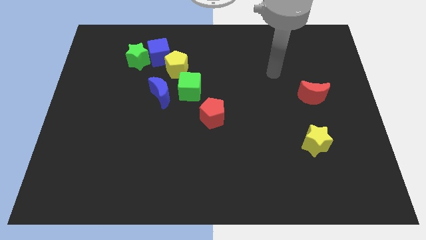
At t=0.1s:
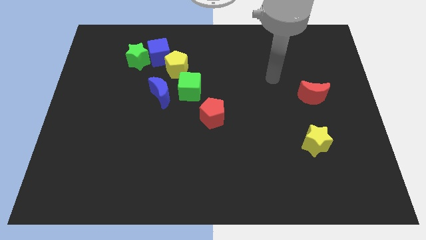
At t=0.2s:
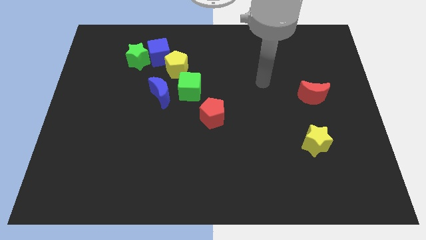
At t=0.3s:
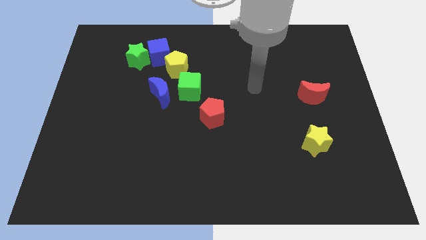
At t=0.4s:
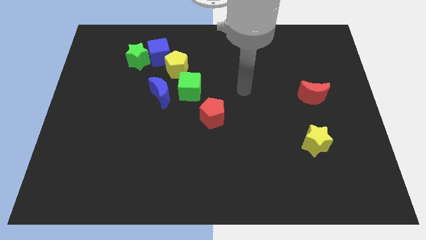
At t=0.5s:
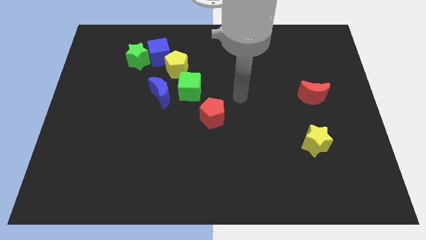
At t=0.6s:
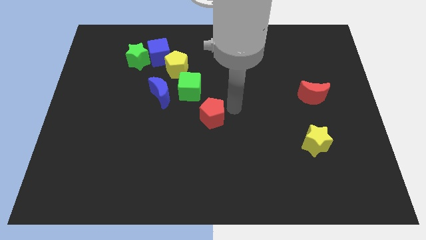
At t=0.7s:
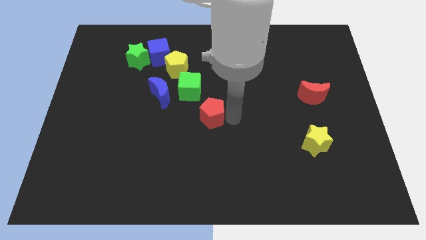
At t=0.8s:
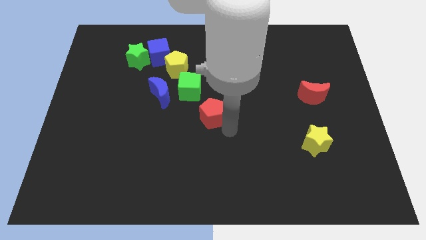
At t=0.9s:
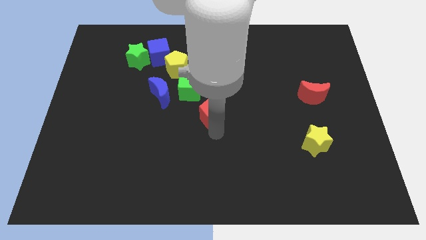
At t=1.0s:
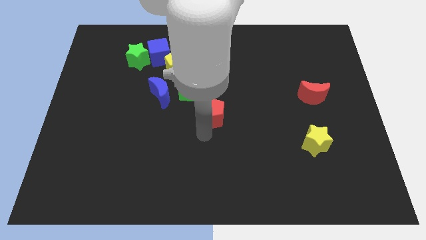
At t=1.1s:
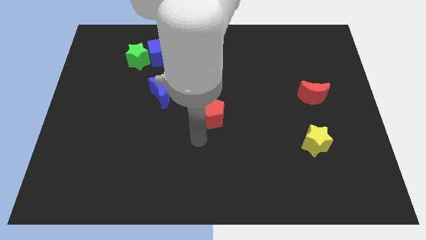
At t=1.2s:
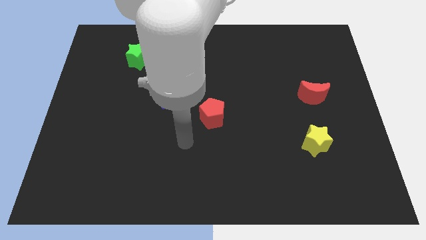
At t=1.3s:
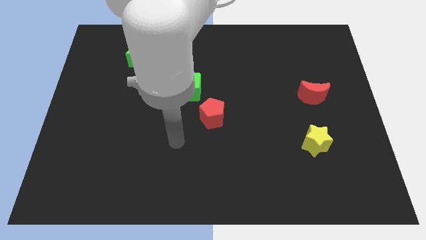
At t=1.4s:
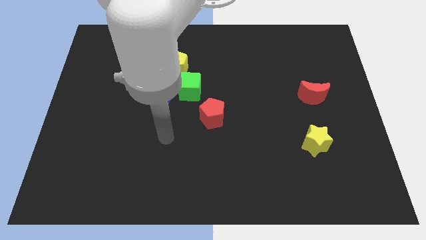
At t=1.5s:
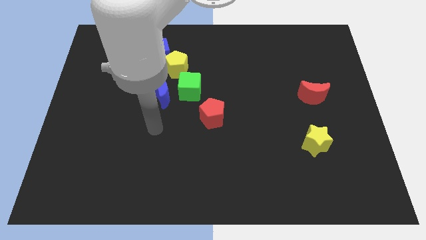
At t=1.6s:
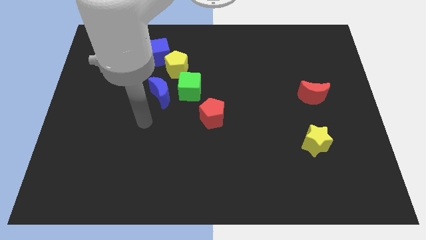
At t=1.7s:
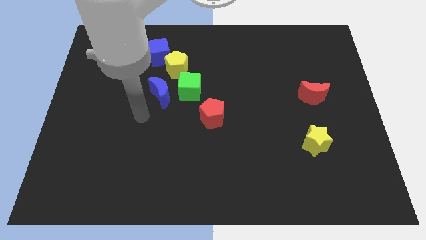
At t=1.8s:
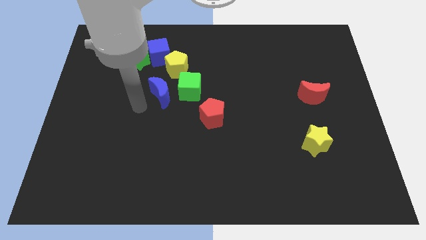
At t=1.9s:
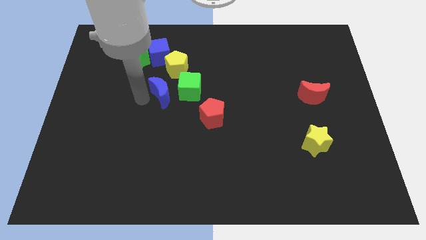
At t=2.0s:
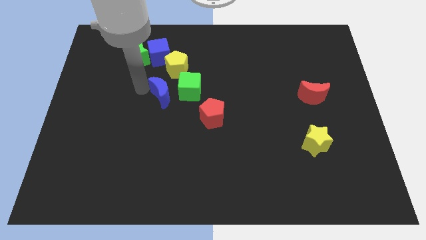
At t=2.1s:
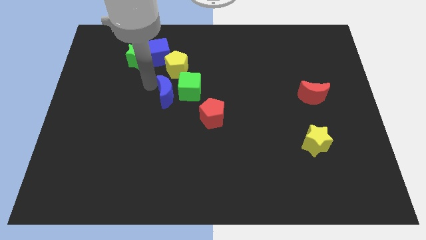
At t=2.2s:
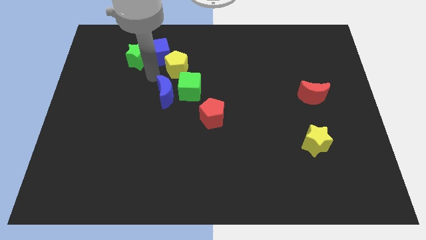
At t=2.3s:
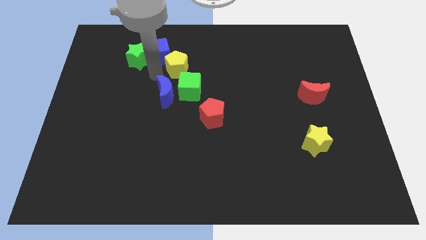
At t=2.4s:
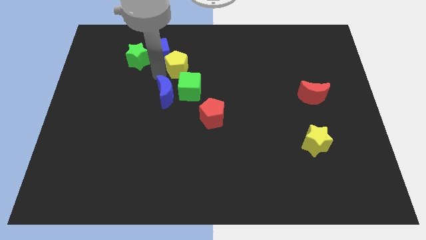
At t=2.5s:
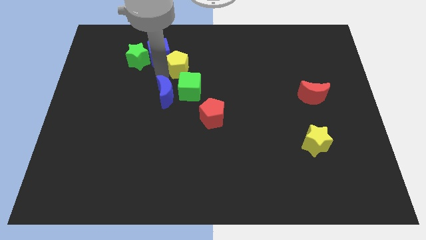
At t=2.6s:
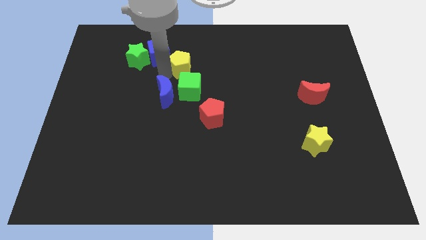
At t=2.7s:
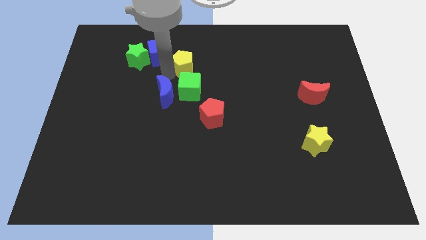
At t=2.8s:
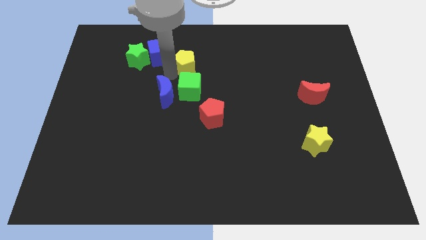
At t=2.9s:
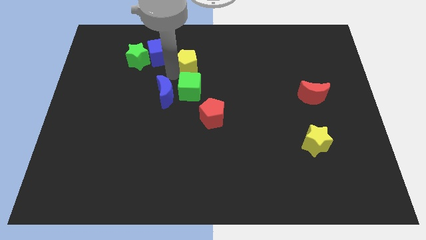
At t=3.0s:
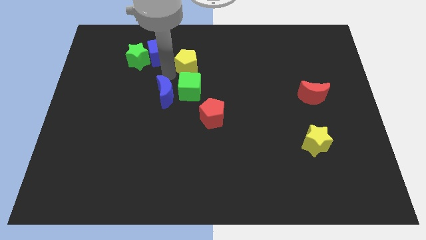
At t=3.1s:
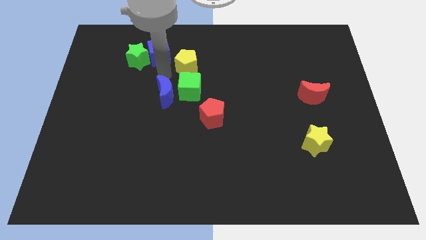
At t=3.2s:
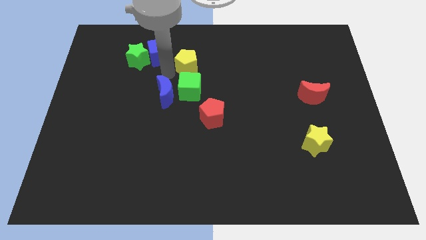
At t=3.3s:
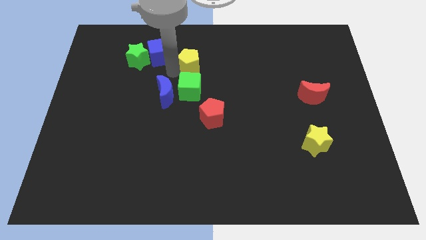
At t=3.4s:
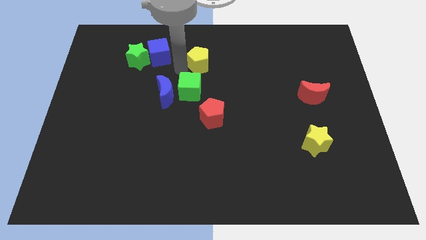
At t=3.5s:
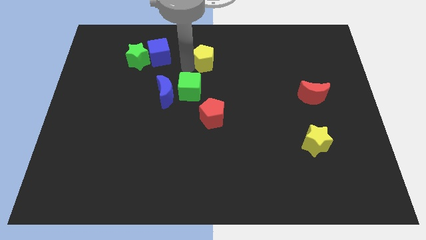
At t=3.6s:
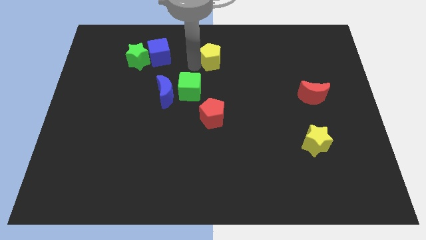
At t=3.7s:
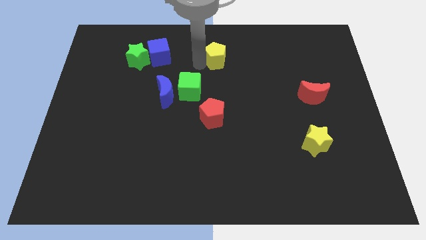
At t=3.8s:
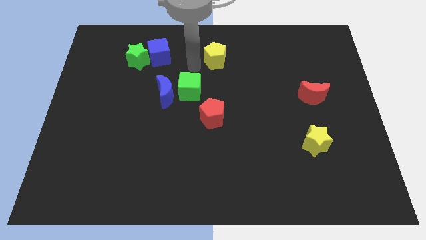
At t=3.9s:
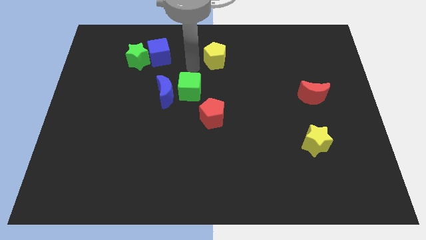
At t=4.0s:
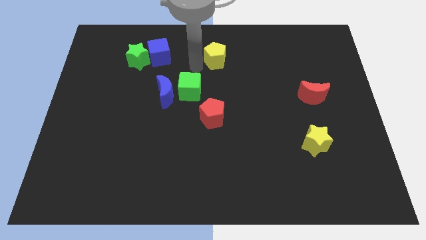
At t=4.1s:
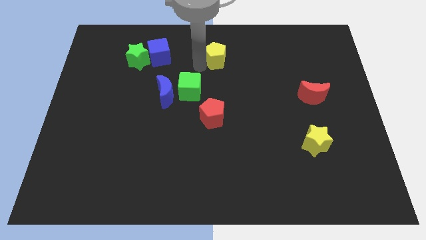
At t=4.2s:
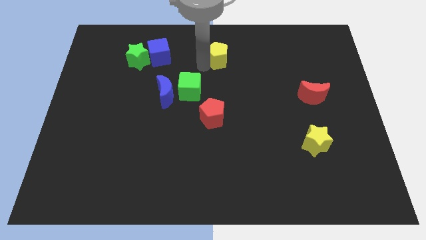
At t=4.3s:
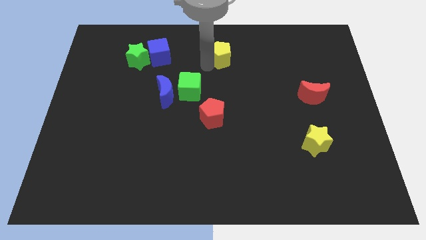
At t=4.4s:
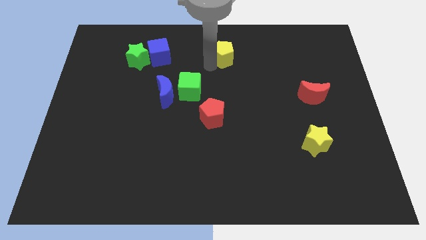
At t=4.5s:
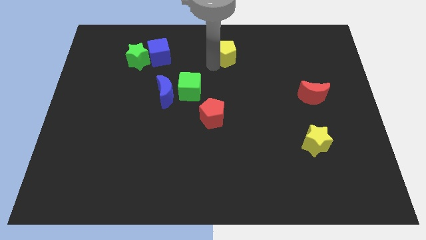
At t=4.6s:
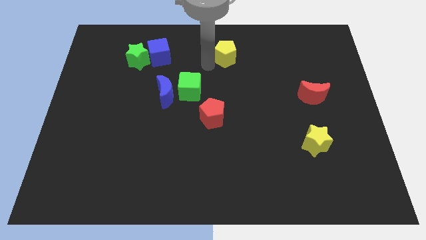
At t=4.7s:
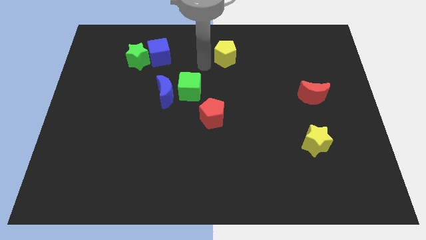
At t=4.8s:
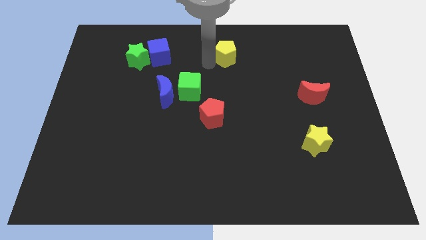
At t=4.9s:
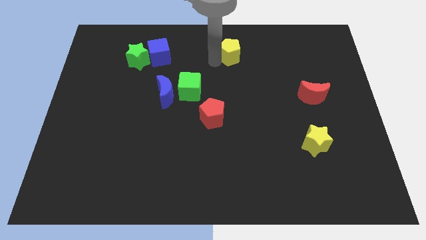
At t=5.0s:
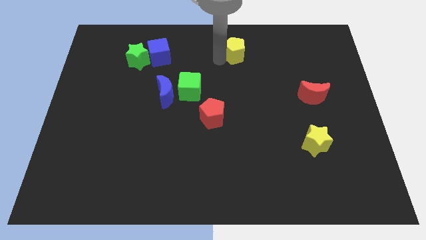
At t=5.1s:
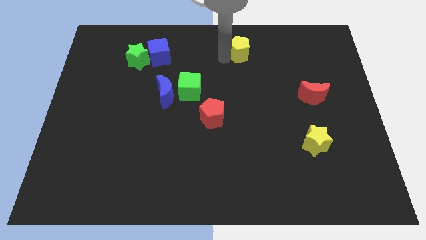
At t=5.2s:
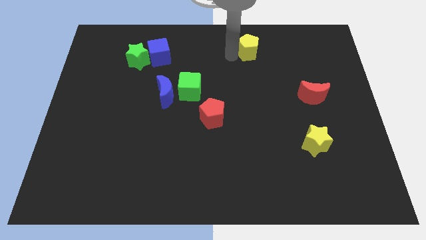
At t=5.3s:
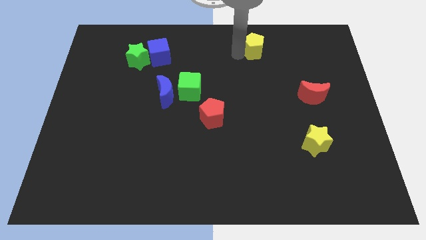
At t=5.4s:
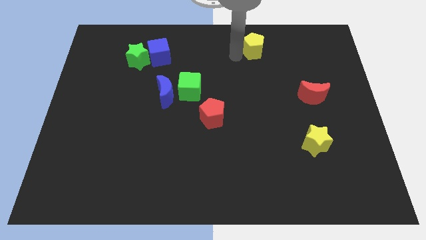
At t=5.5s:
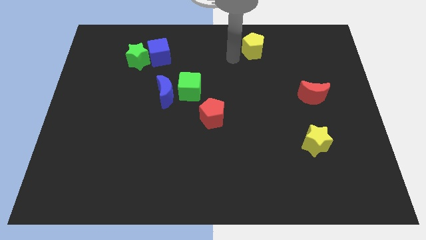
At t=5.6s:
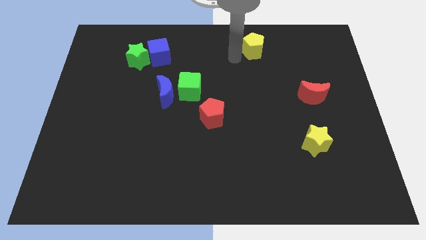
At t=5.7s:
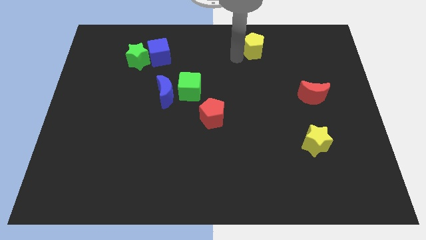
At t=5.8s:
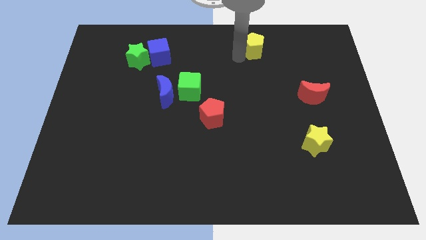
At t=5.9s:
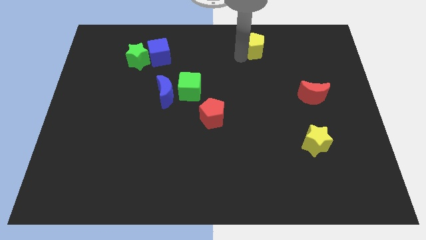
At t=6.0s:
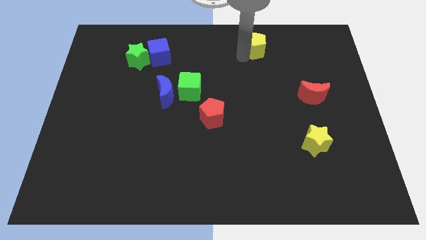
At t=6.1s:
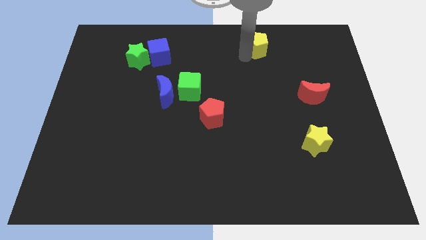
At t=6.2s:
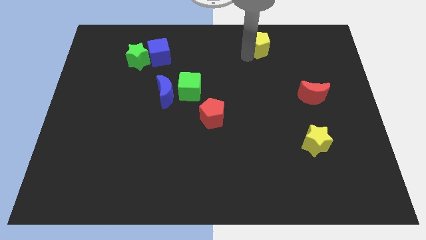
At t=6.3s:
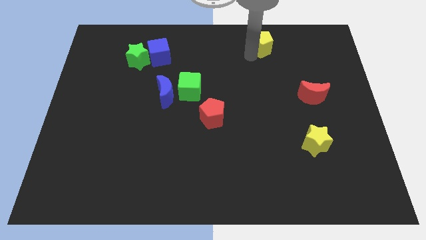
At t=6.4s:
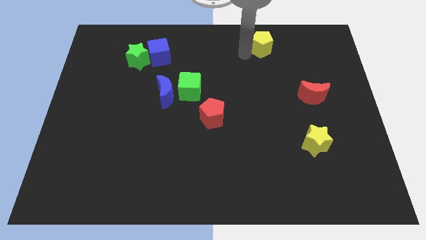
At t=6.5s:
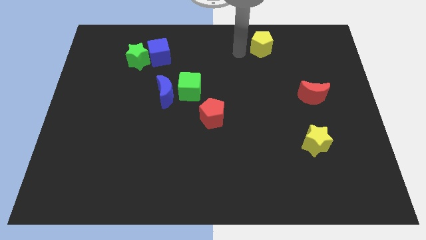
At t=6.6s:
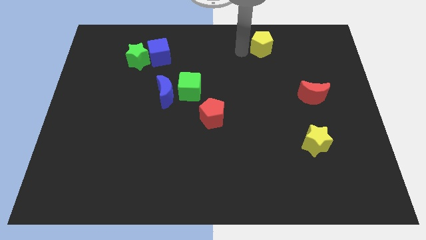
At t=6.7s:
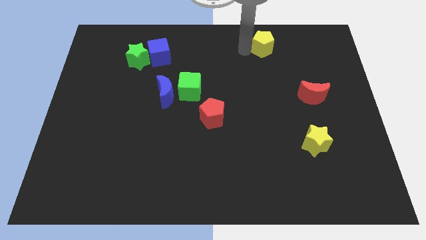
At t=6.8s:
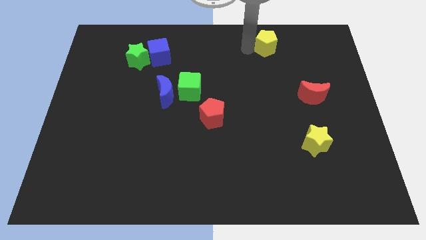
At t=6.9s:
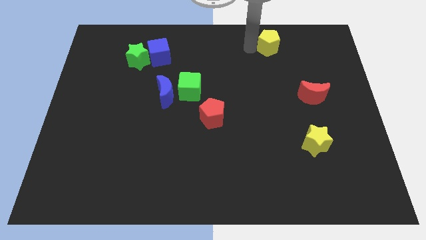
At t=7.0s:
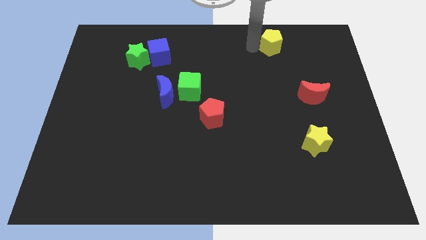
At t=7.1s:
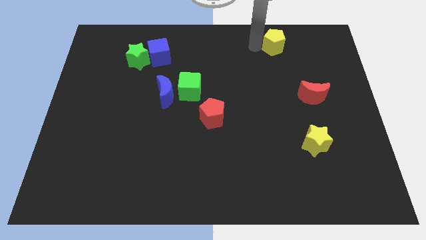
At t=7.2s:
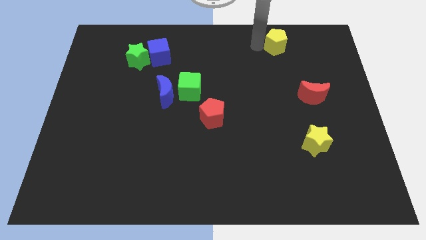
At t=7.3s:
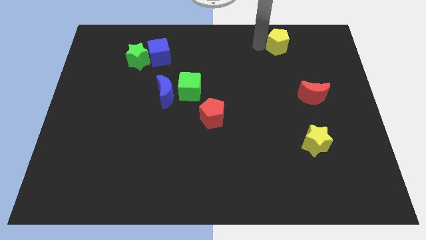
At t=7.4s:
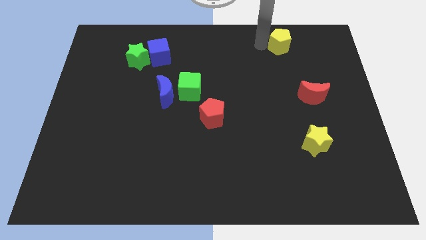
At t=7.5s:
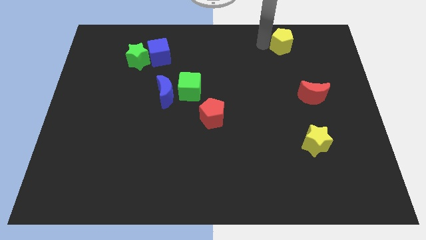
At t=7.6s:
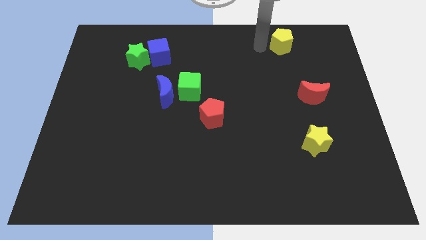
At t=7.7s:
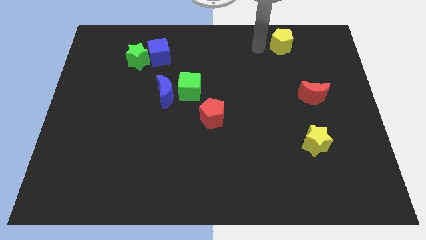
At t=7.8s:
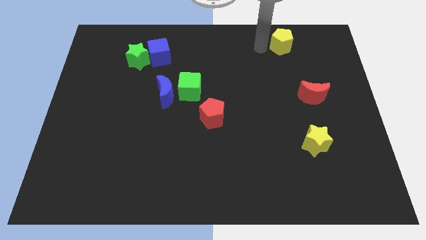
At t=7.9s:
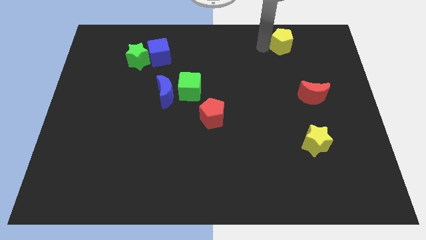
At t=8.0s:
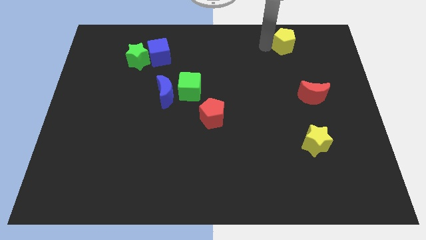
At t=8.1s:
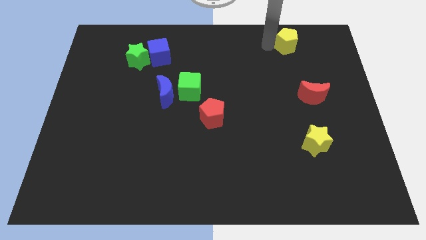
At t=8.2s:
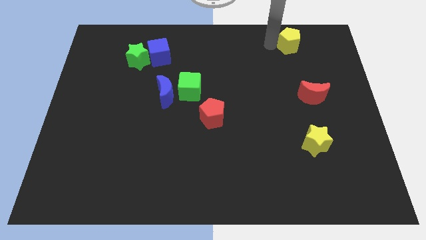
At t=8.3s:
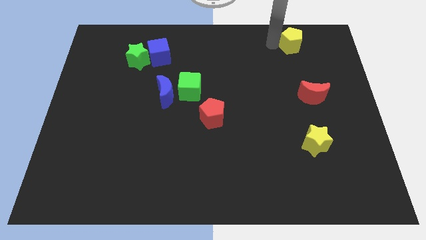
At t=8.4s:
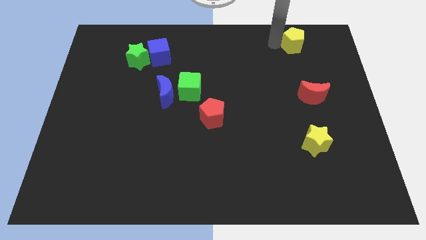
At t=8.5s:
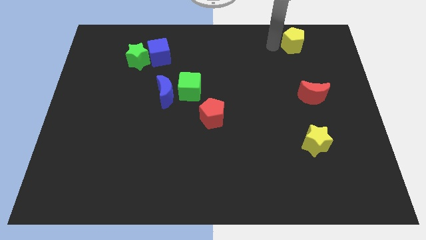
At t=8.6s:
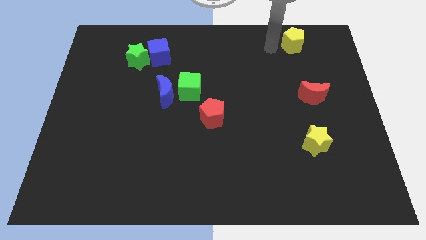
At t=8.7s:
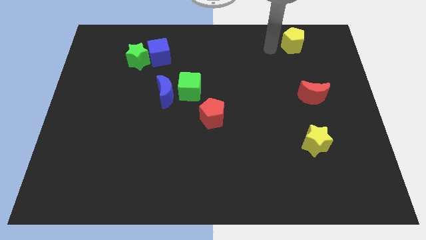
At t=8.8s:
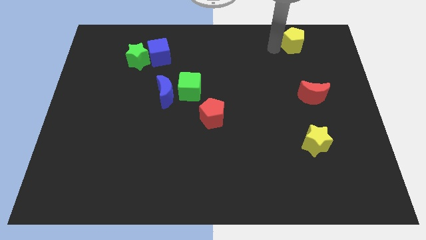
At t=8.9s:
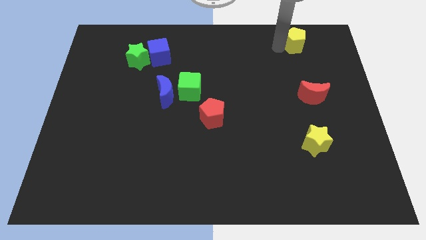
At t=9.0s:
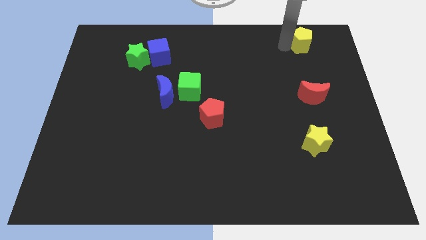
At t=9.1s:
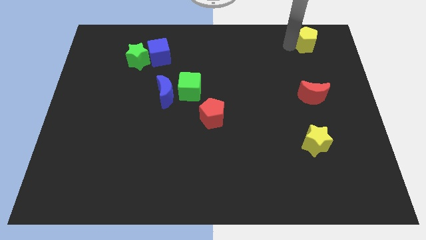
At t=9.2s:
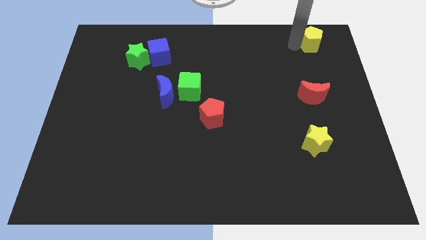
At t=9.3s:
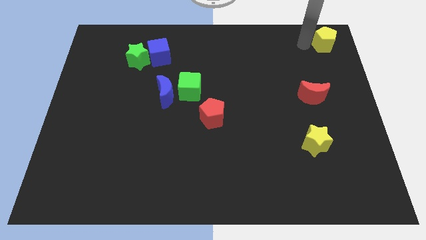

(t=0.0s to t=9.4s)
slide the yellow pentagon to the upper right corner
